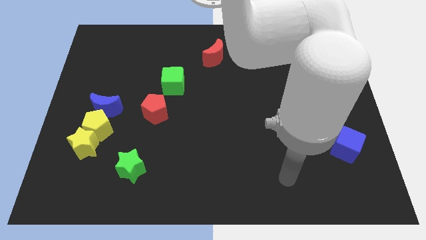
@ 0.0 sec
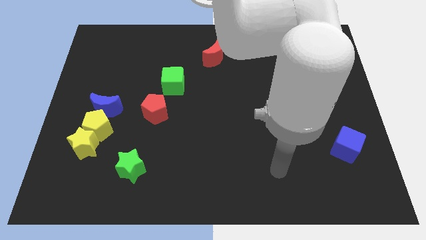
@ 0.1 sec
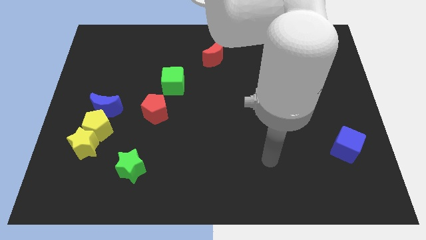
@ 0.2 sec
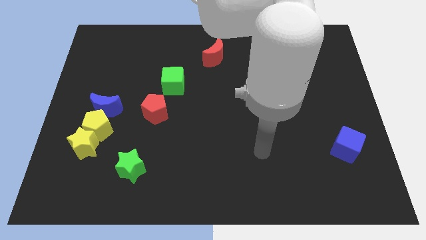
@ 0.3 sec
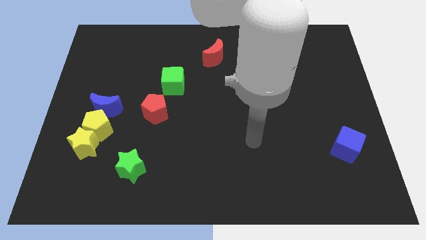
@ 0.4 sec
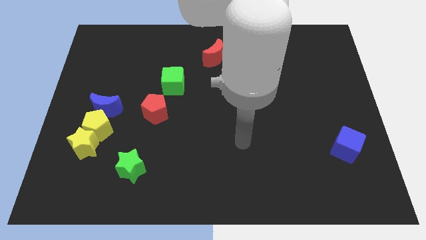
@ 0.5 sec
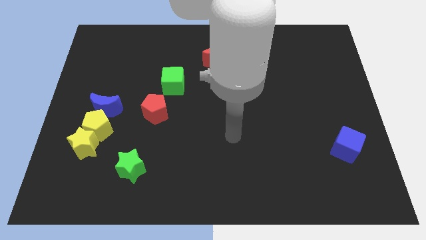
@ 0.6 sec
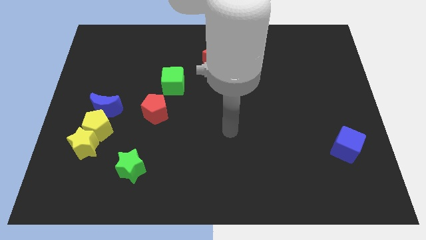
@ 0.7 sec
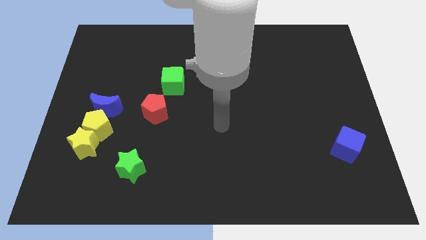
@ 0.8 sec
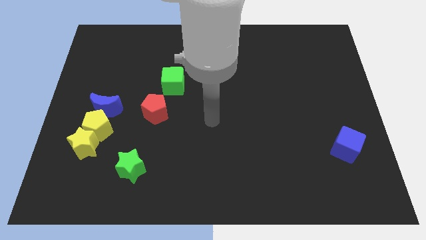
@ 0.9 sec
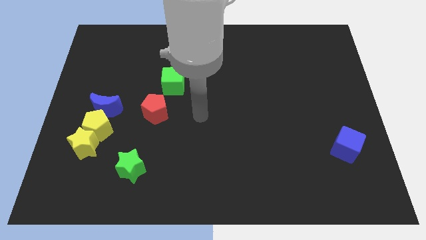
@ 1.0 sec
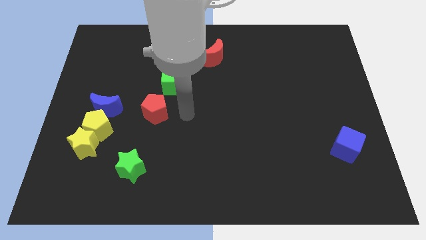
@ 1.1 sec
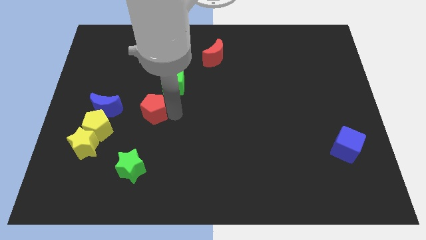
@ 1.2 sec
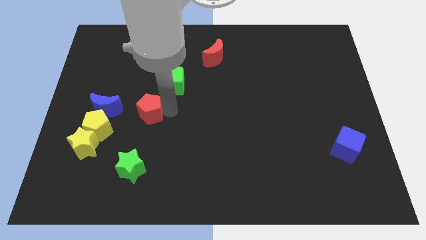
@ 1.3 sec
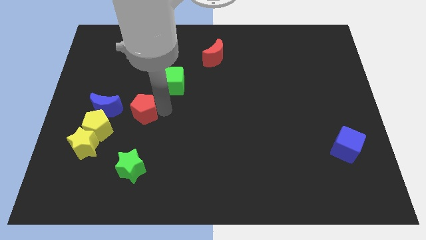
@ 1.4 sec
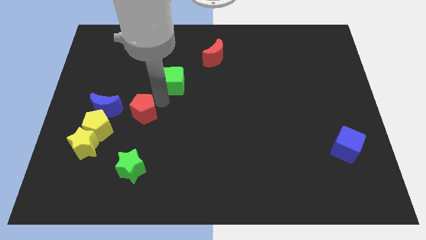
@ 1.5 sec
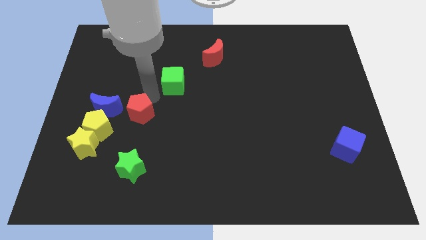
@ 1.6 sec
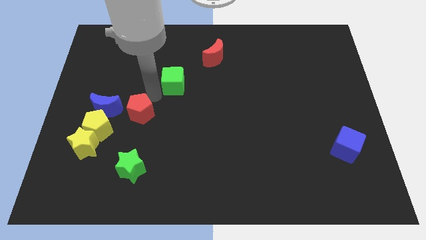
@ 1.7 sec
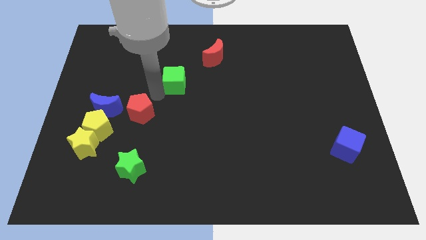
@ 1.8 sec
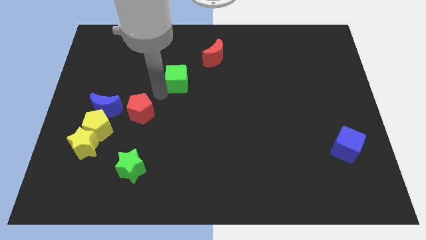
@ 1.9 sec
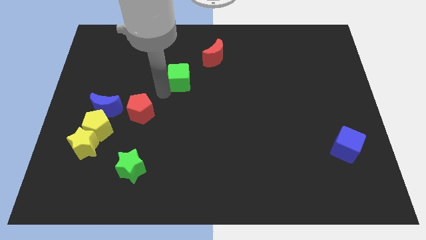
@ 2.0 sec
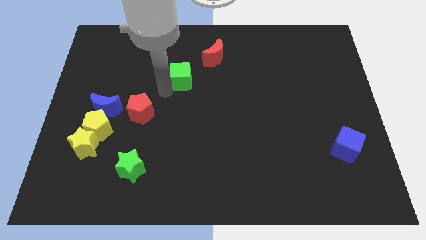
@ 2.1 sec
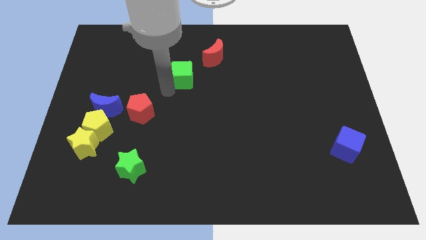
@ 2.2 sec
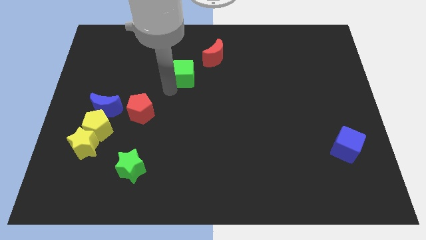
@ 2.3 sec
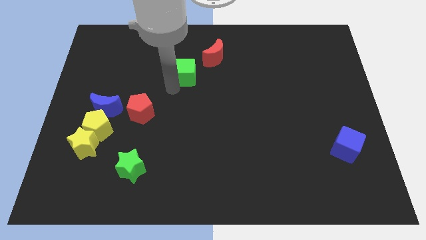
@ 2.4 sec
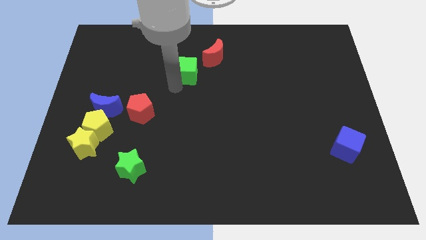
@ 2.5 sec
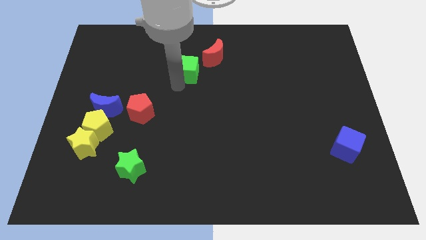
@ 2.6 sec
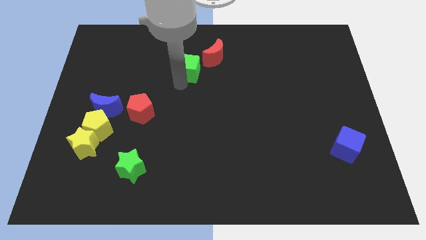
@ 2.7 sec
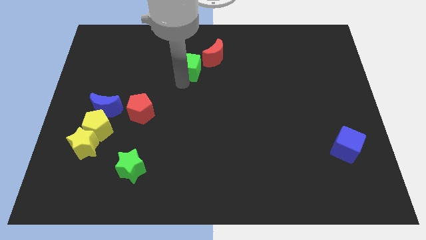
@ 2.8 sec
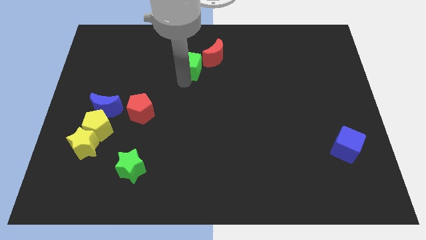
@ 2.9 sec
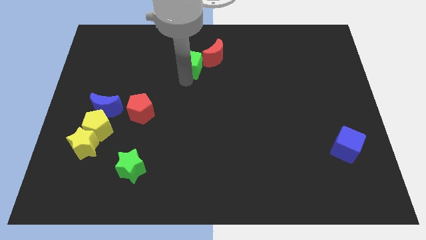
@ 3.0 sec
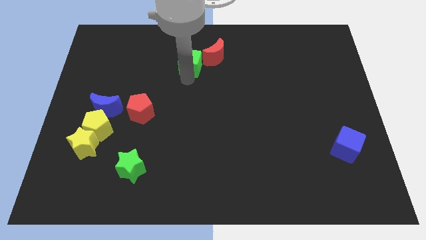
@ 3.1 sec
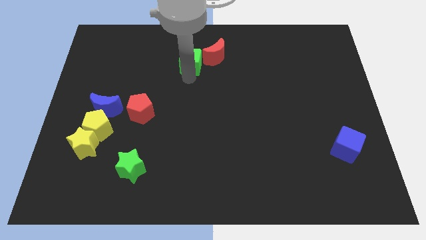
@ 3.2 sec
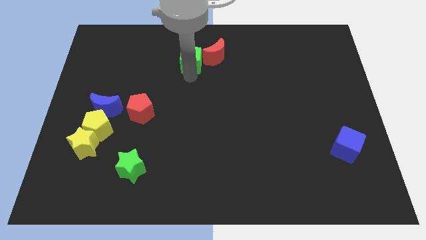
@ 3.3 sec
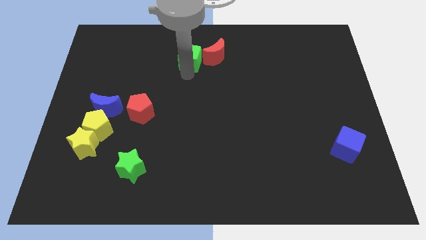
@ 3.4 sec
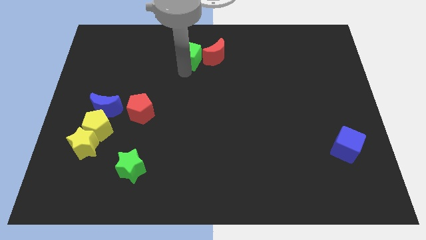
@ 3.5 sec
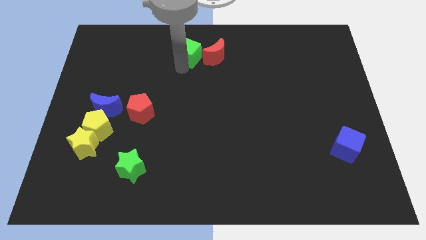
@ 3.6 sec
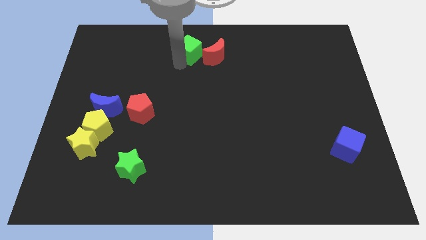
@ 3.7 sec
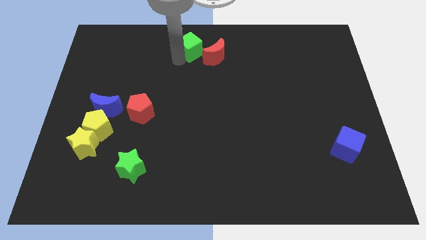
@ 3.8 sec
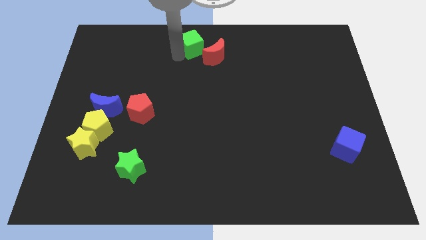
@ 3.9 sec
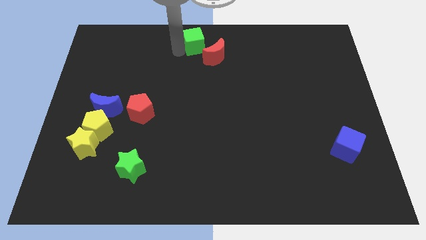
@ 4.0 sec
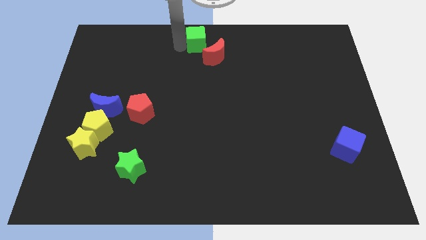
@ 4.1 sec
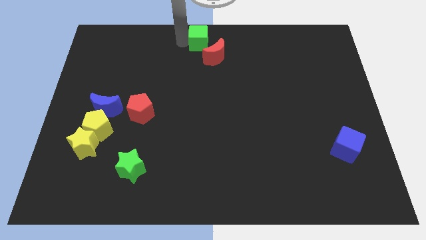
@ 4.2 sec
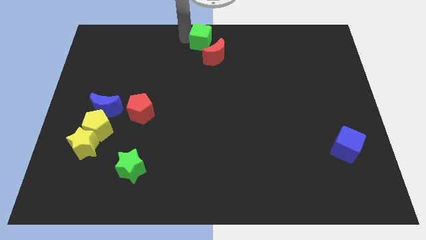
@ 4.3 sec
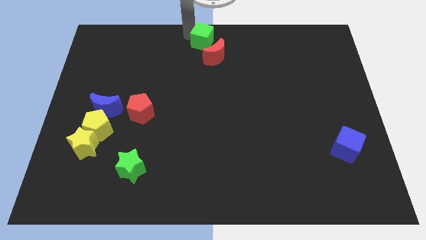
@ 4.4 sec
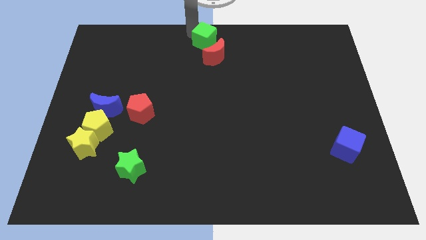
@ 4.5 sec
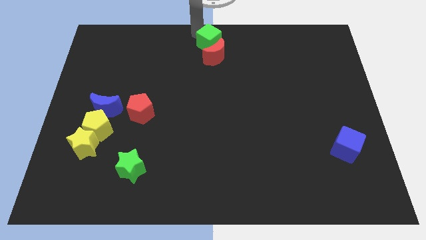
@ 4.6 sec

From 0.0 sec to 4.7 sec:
put the green cube next to the red moon

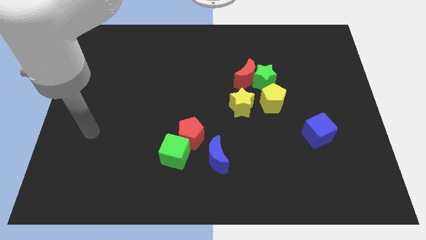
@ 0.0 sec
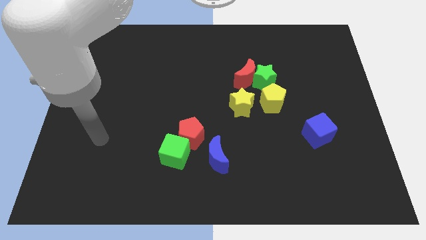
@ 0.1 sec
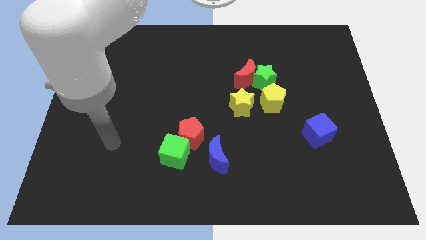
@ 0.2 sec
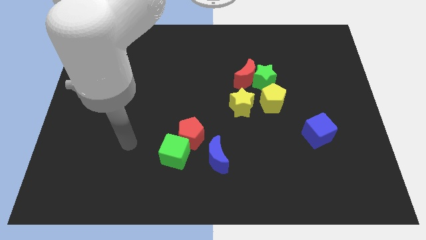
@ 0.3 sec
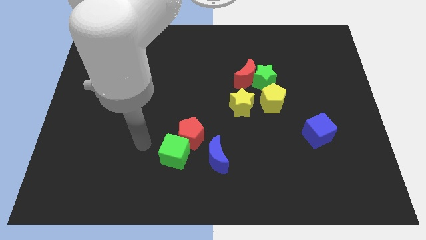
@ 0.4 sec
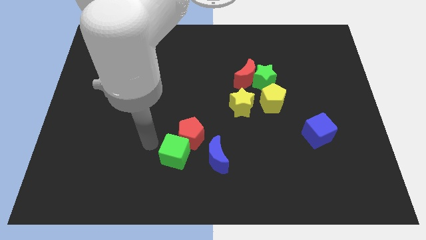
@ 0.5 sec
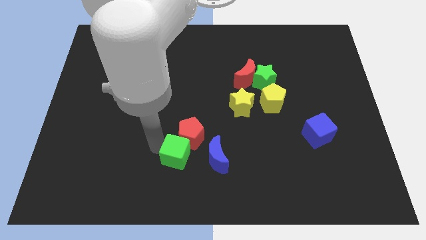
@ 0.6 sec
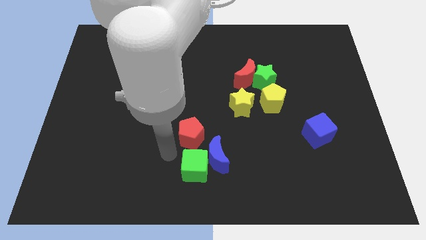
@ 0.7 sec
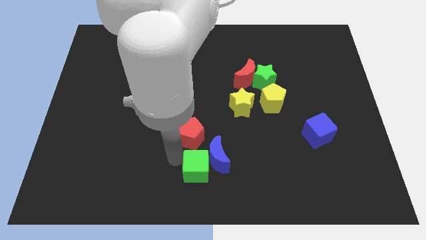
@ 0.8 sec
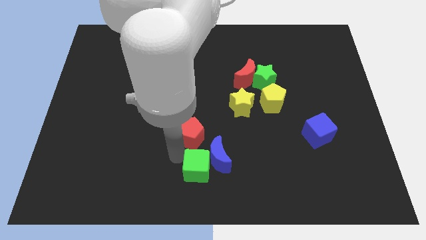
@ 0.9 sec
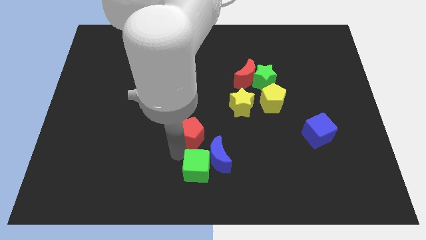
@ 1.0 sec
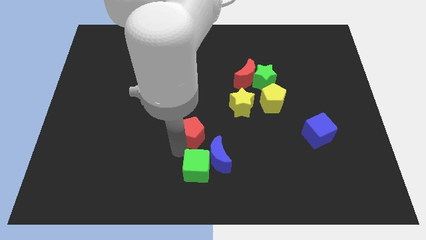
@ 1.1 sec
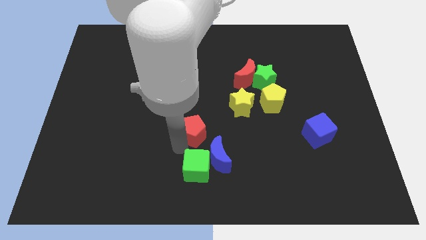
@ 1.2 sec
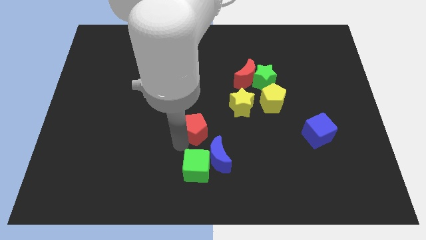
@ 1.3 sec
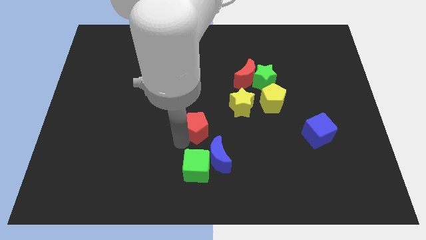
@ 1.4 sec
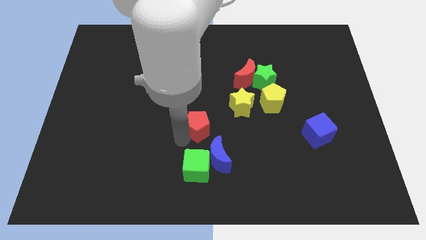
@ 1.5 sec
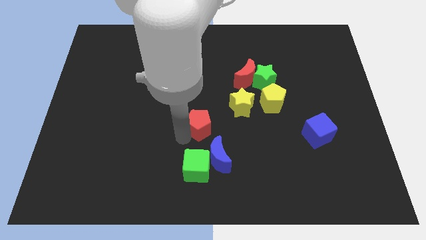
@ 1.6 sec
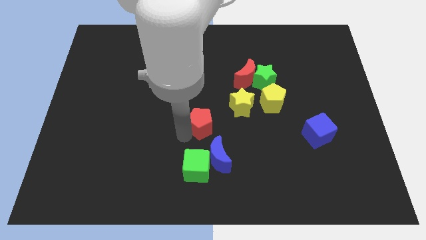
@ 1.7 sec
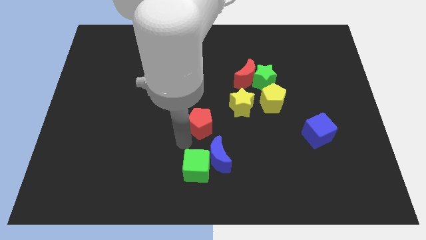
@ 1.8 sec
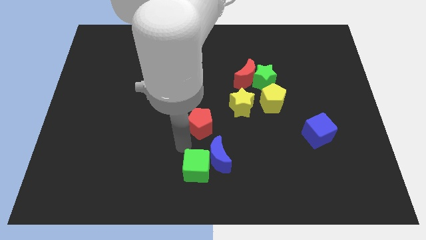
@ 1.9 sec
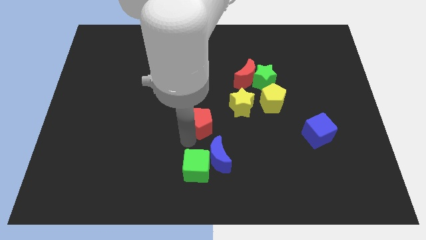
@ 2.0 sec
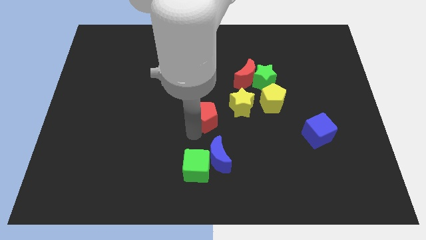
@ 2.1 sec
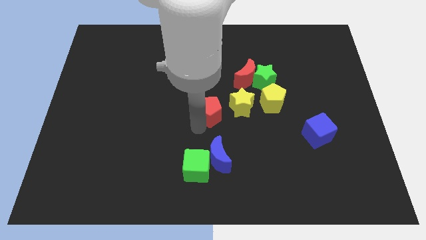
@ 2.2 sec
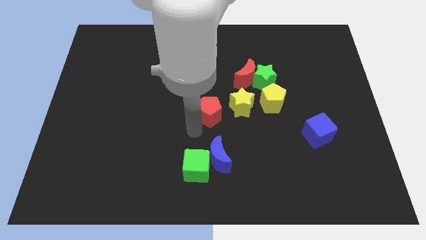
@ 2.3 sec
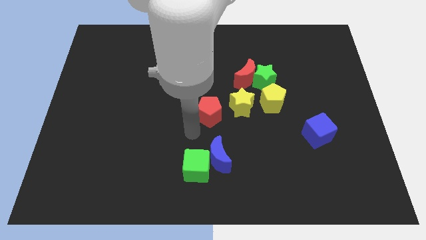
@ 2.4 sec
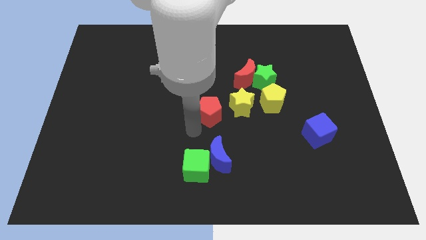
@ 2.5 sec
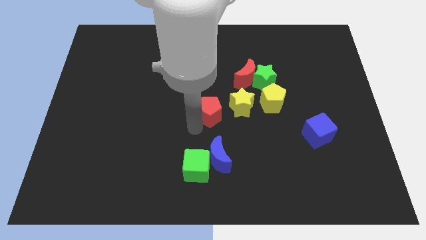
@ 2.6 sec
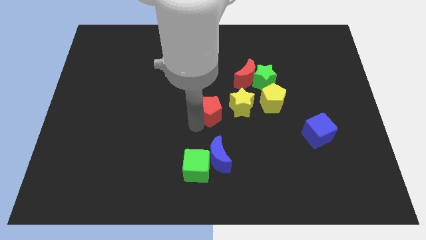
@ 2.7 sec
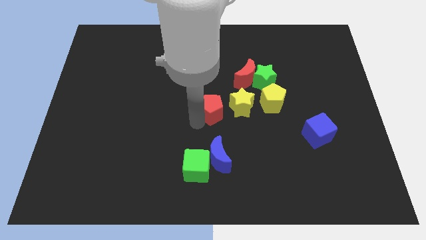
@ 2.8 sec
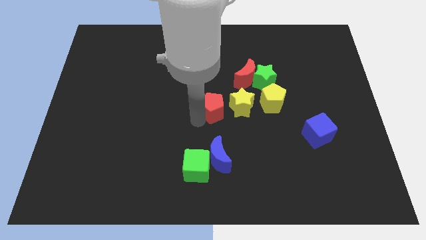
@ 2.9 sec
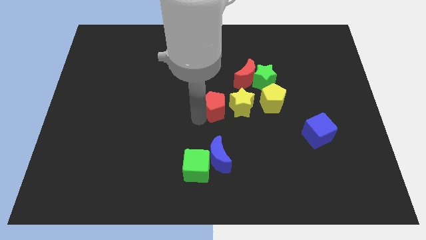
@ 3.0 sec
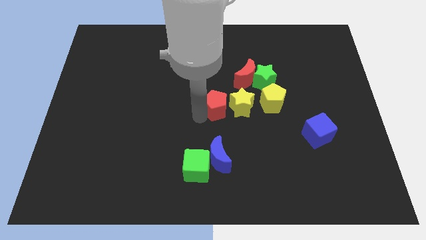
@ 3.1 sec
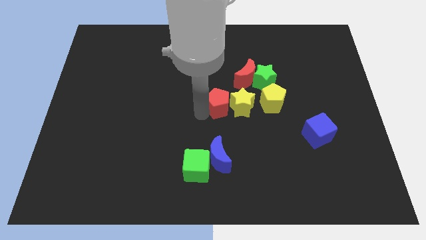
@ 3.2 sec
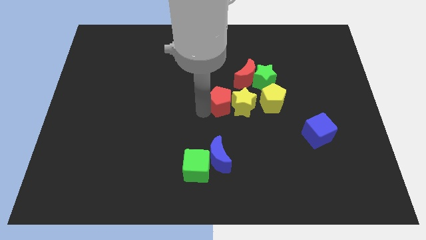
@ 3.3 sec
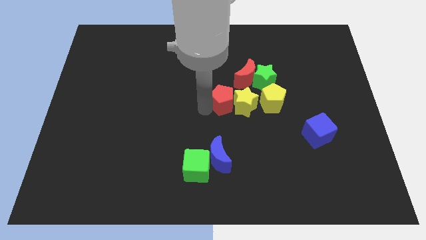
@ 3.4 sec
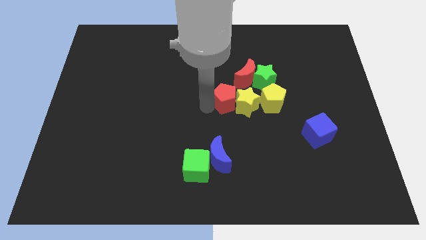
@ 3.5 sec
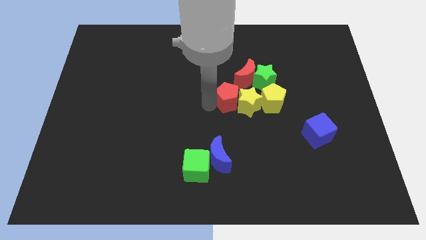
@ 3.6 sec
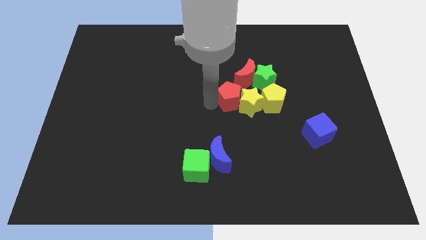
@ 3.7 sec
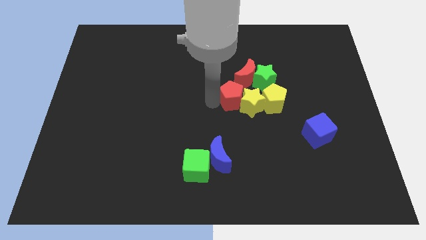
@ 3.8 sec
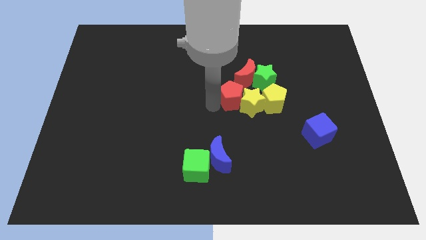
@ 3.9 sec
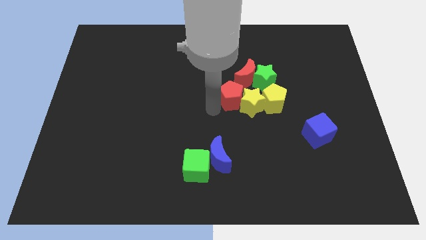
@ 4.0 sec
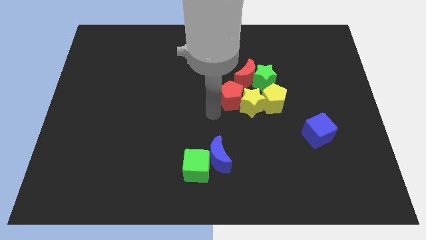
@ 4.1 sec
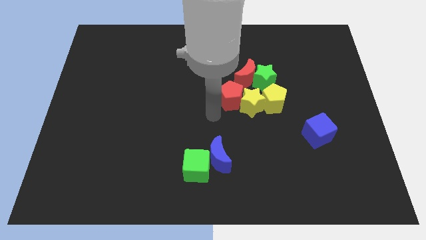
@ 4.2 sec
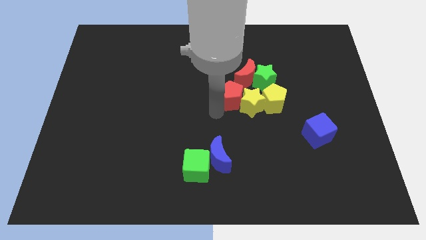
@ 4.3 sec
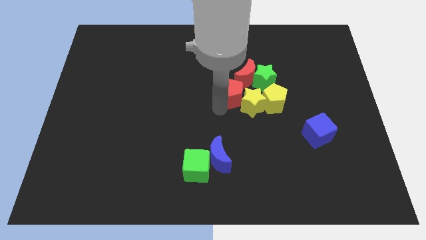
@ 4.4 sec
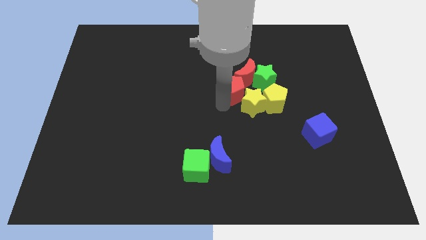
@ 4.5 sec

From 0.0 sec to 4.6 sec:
slide the red pentagon towards the red moon
